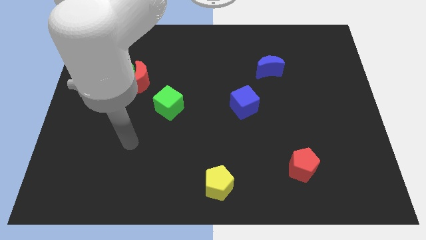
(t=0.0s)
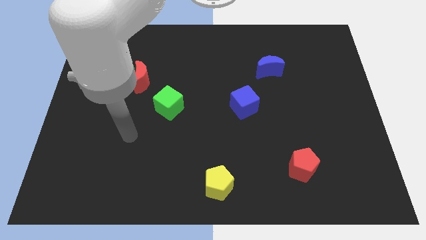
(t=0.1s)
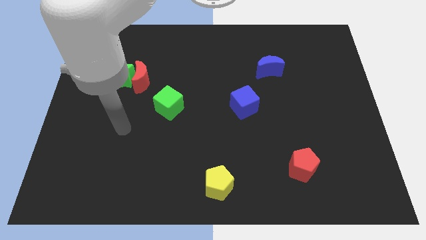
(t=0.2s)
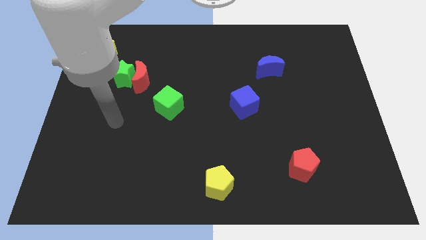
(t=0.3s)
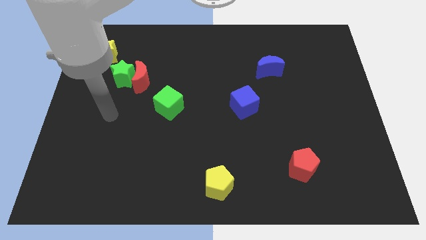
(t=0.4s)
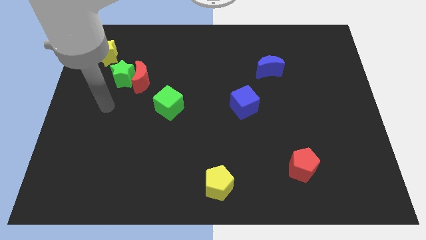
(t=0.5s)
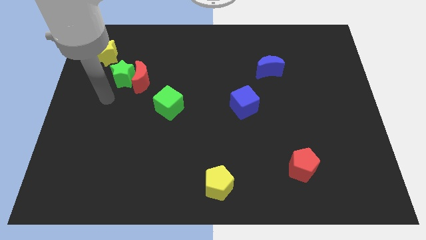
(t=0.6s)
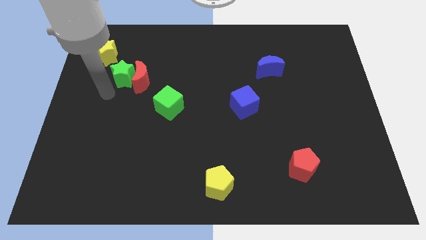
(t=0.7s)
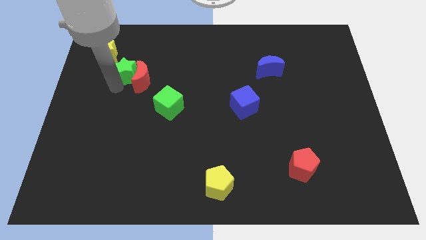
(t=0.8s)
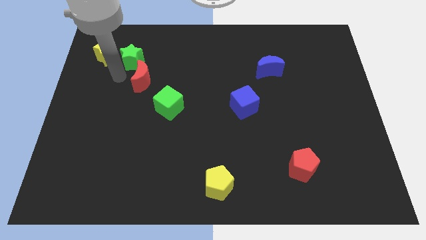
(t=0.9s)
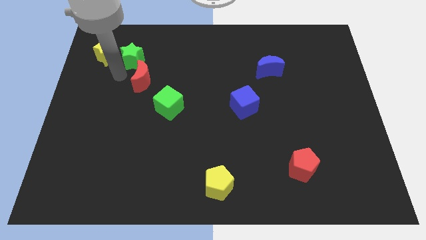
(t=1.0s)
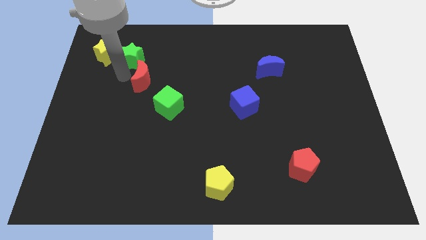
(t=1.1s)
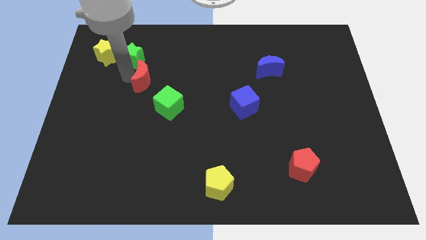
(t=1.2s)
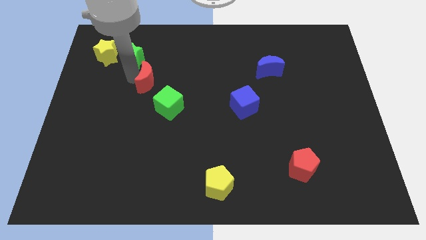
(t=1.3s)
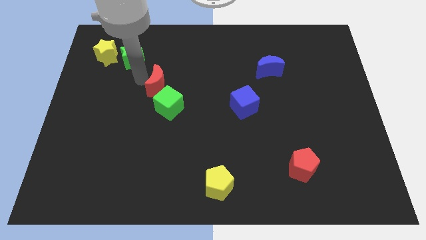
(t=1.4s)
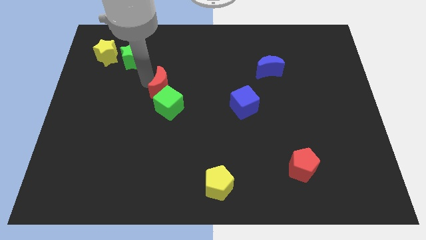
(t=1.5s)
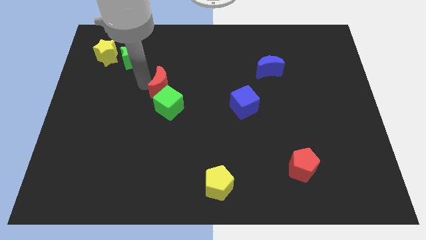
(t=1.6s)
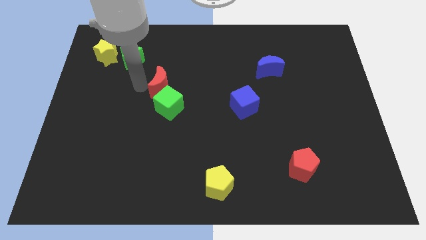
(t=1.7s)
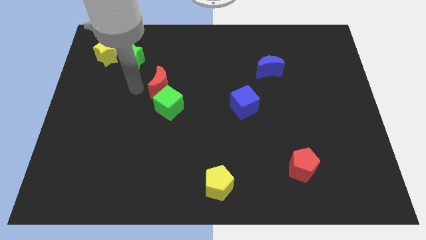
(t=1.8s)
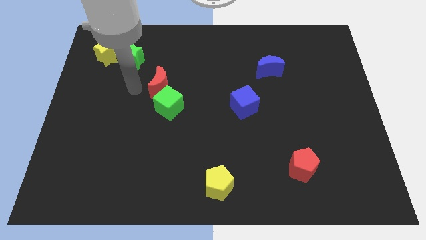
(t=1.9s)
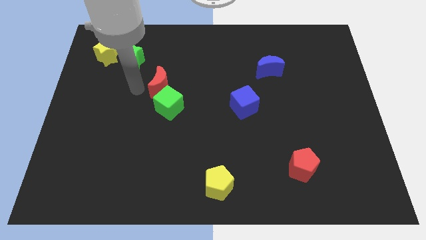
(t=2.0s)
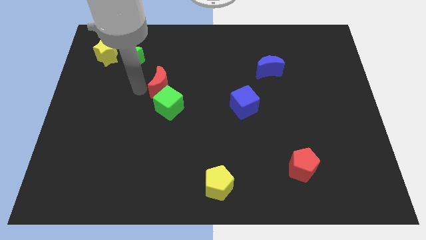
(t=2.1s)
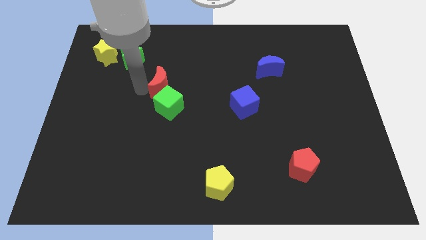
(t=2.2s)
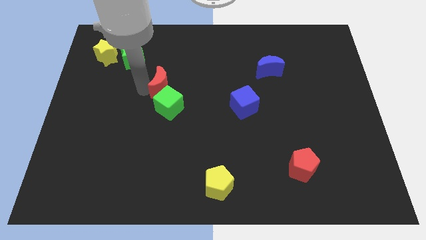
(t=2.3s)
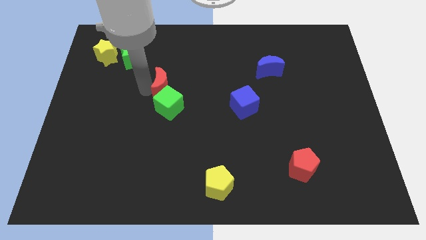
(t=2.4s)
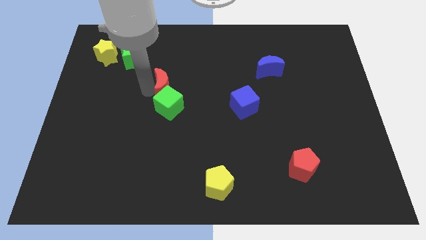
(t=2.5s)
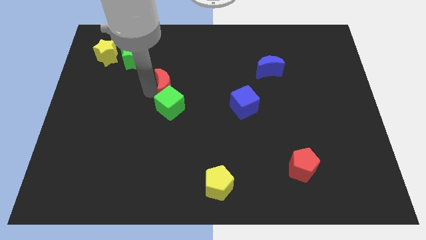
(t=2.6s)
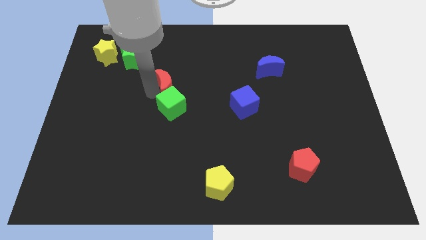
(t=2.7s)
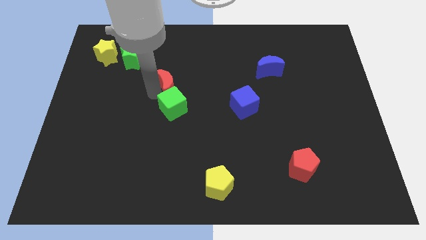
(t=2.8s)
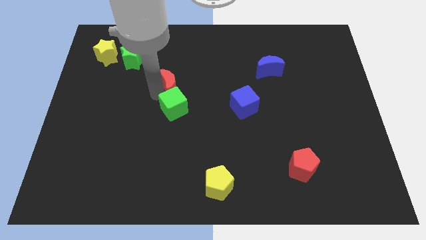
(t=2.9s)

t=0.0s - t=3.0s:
slightly move the red moon right

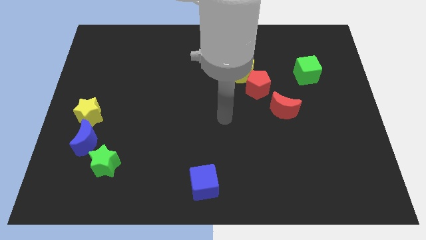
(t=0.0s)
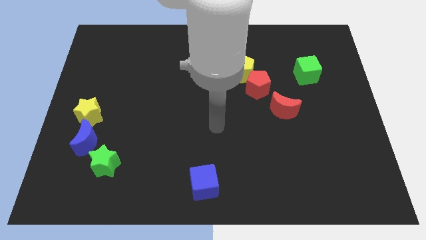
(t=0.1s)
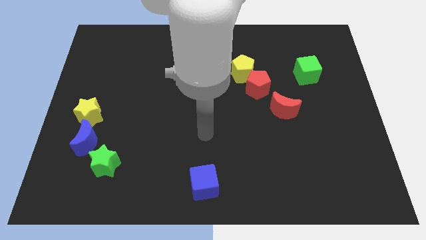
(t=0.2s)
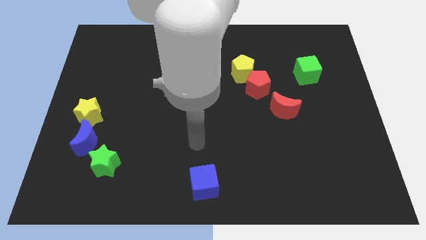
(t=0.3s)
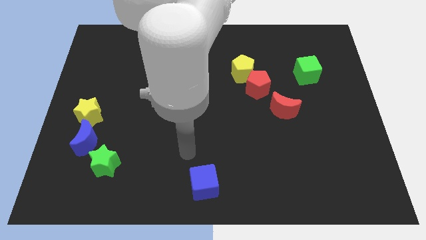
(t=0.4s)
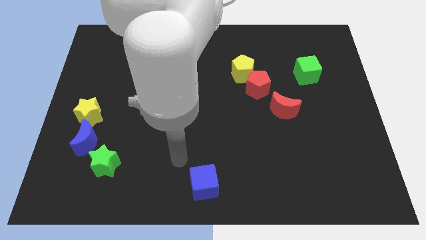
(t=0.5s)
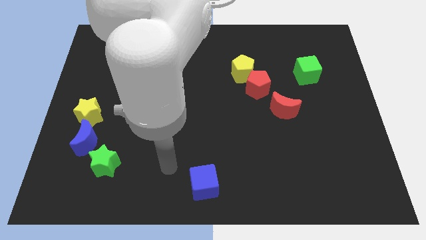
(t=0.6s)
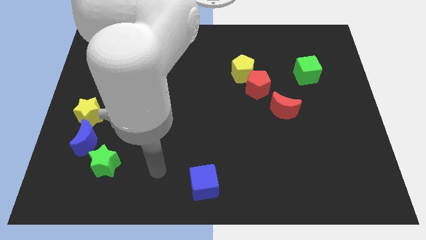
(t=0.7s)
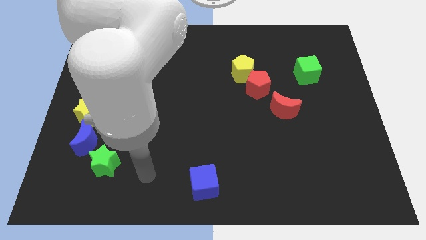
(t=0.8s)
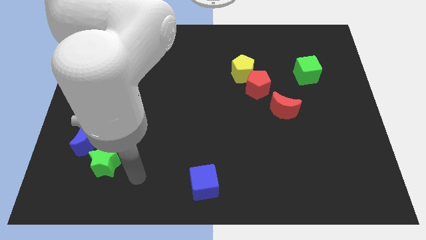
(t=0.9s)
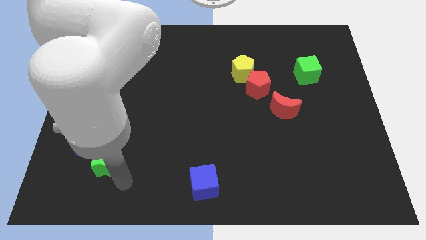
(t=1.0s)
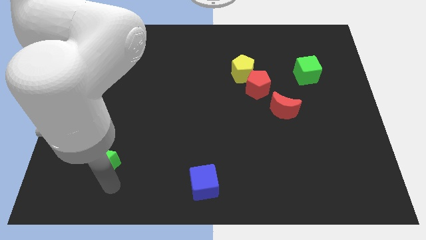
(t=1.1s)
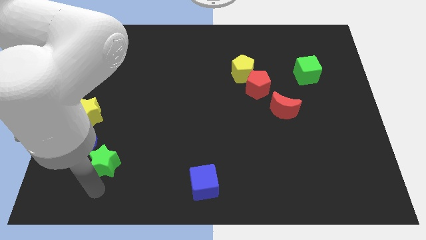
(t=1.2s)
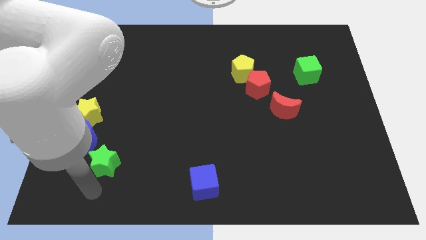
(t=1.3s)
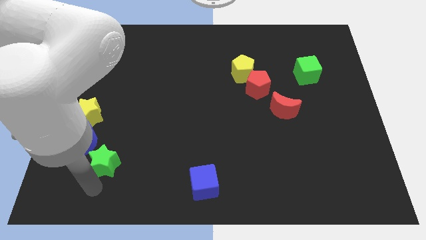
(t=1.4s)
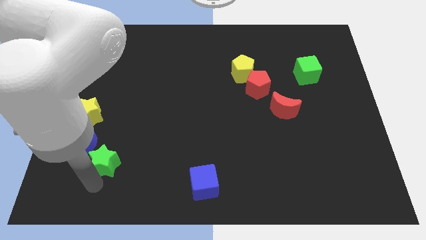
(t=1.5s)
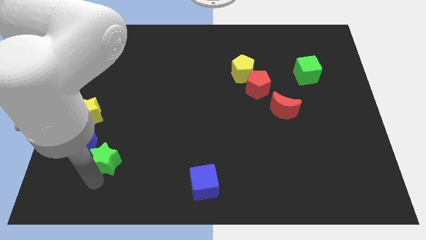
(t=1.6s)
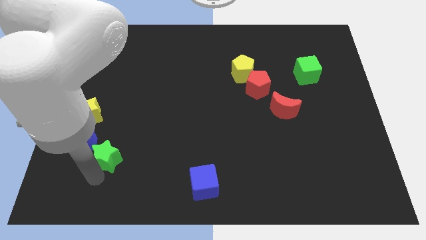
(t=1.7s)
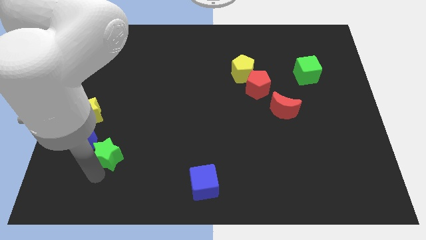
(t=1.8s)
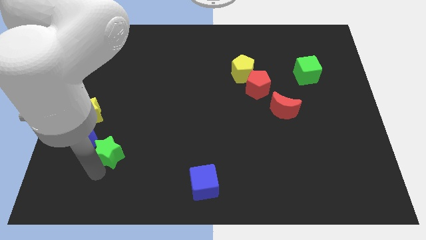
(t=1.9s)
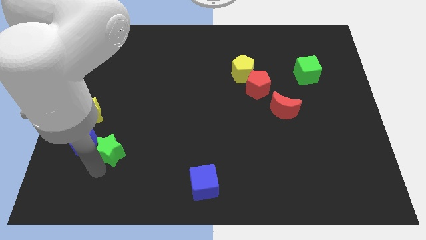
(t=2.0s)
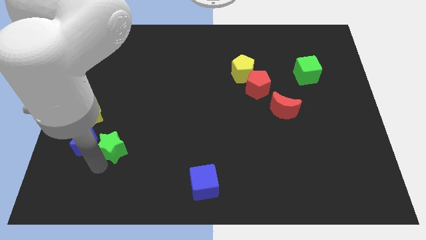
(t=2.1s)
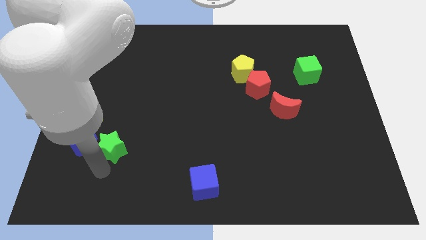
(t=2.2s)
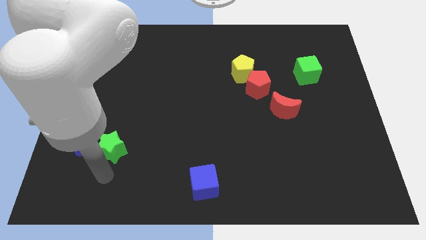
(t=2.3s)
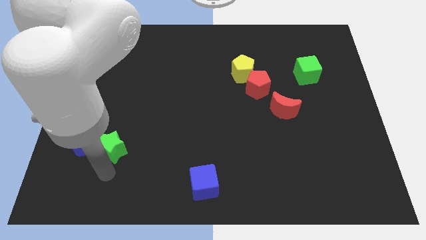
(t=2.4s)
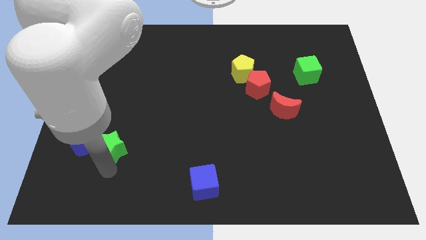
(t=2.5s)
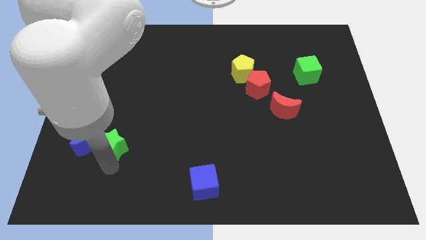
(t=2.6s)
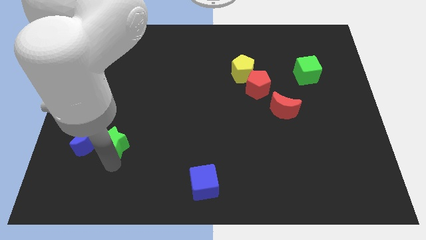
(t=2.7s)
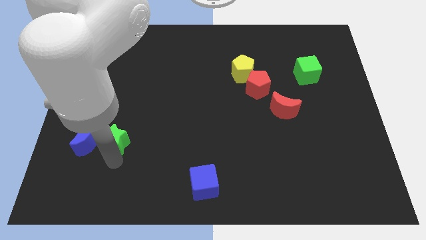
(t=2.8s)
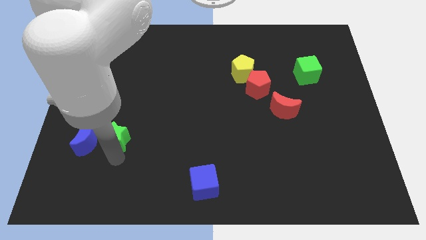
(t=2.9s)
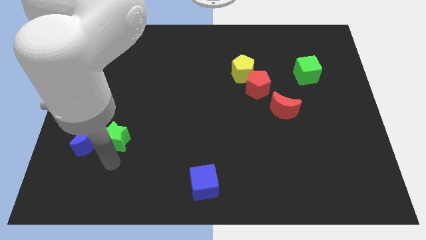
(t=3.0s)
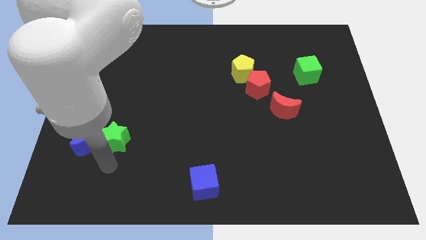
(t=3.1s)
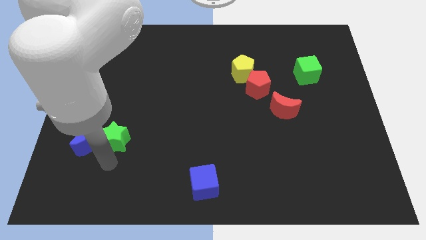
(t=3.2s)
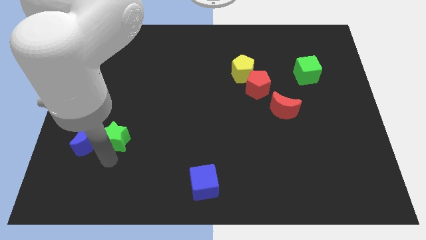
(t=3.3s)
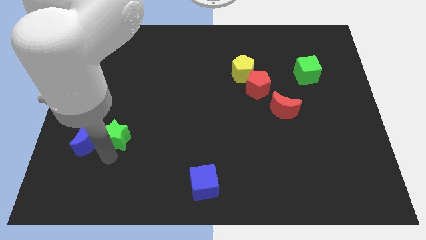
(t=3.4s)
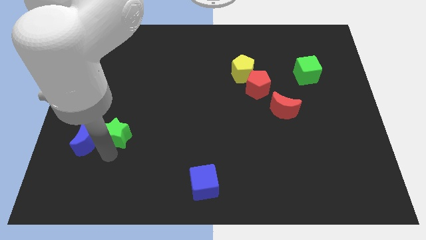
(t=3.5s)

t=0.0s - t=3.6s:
slide the green star up a bit

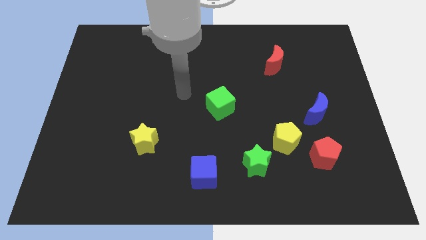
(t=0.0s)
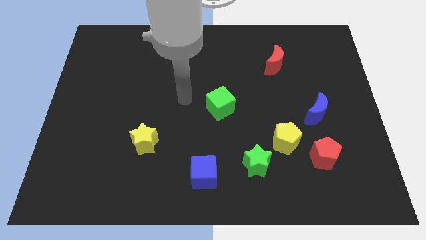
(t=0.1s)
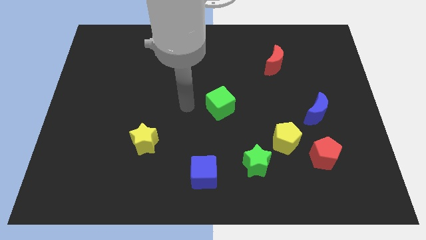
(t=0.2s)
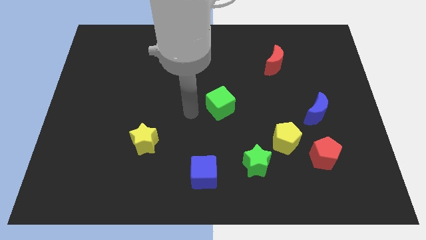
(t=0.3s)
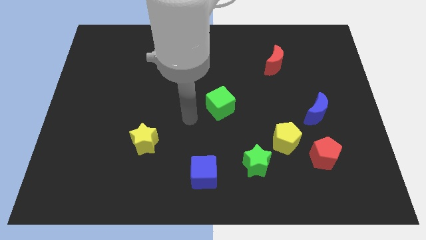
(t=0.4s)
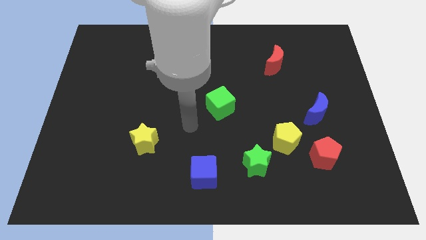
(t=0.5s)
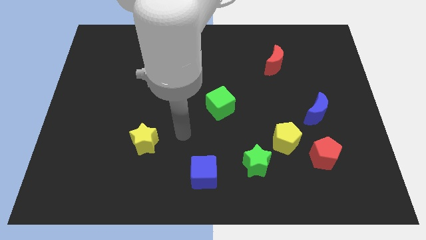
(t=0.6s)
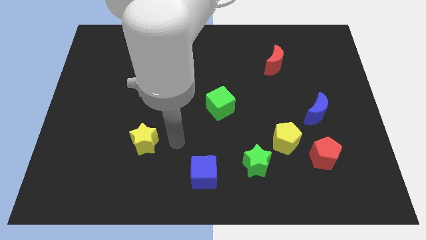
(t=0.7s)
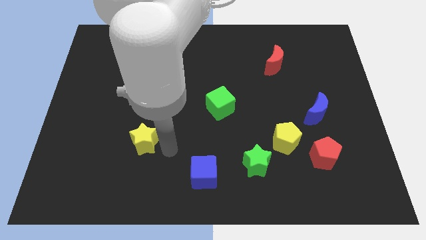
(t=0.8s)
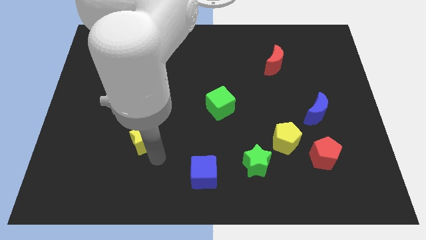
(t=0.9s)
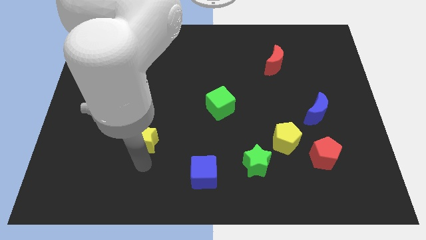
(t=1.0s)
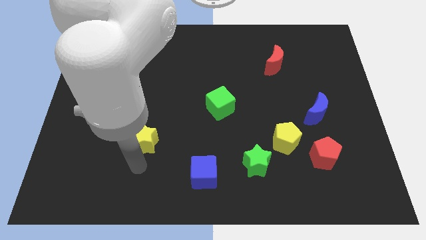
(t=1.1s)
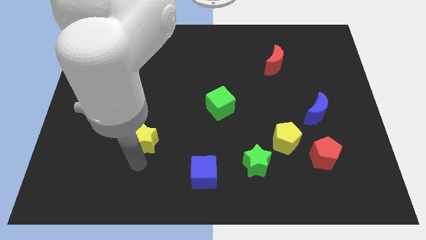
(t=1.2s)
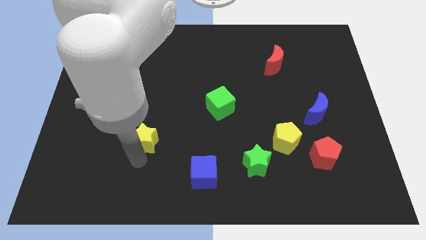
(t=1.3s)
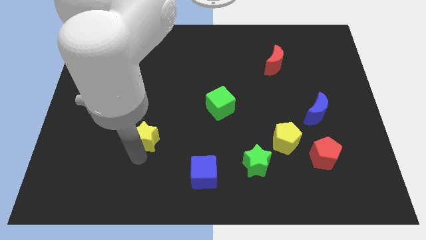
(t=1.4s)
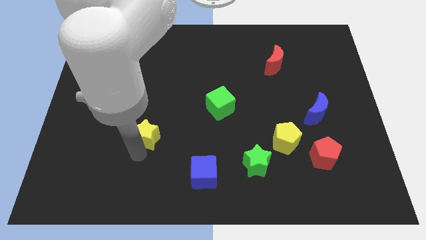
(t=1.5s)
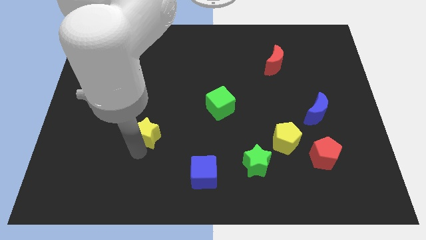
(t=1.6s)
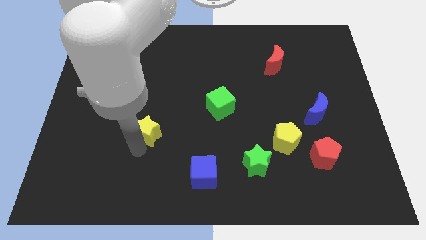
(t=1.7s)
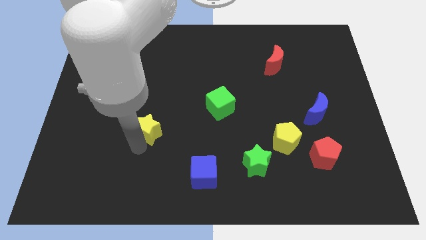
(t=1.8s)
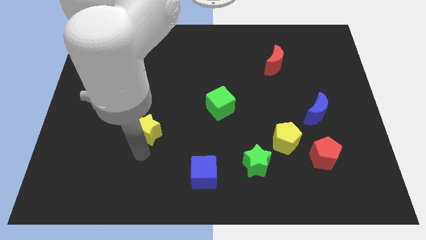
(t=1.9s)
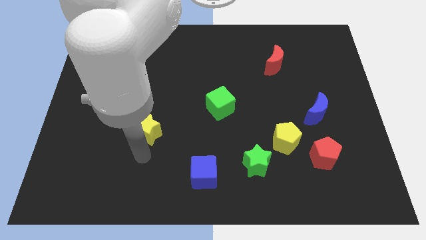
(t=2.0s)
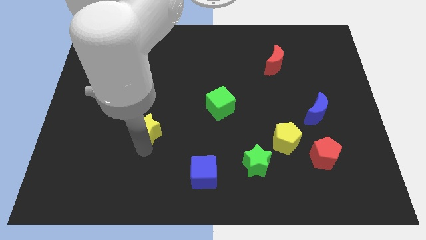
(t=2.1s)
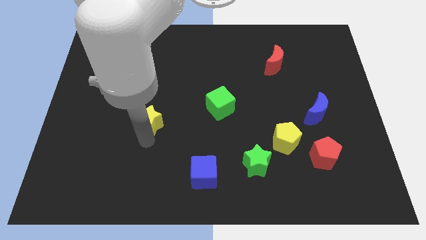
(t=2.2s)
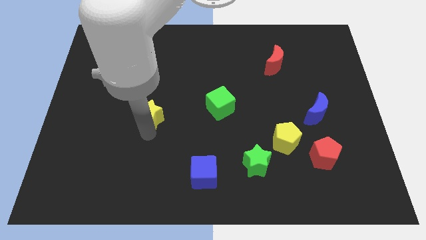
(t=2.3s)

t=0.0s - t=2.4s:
move the yellow star a little up
